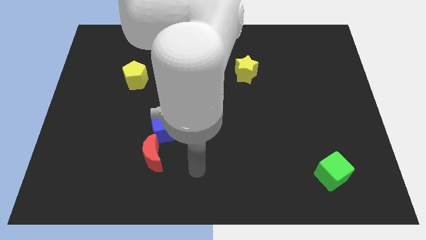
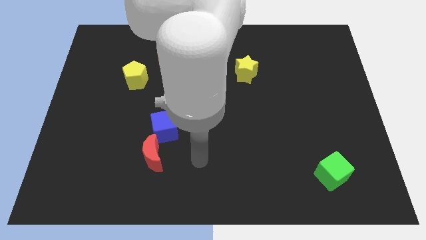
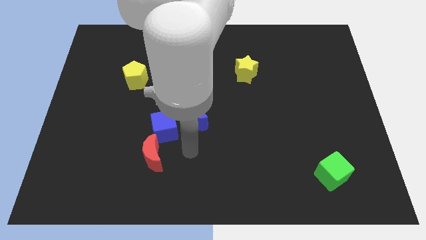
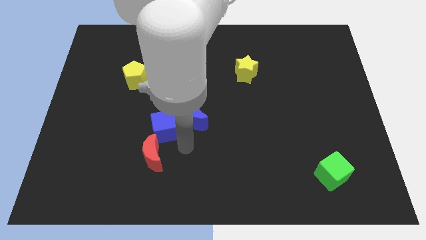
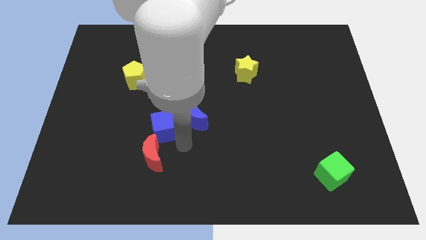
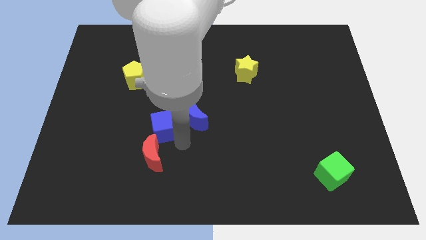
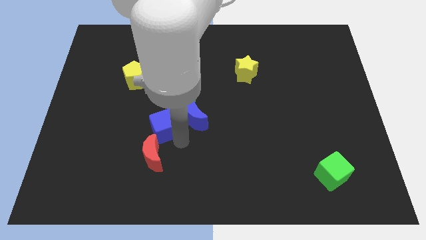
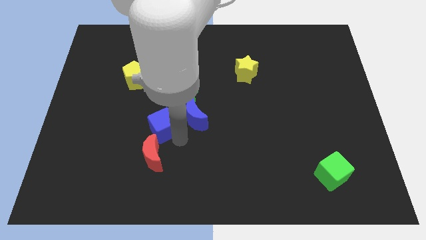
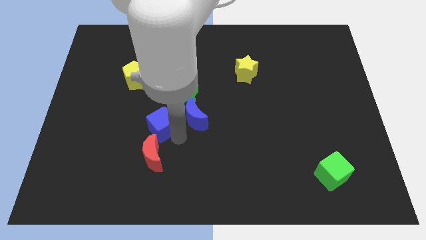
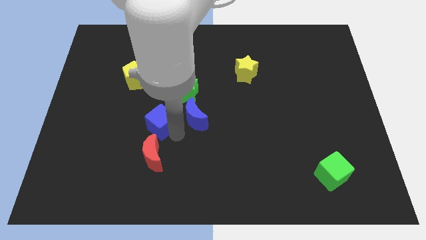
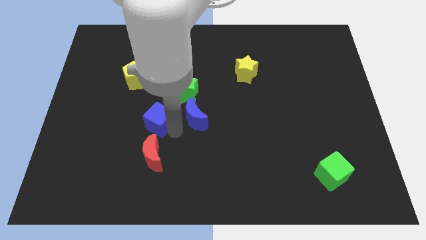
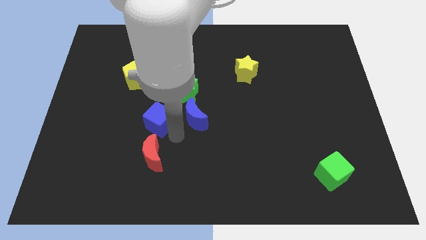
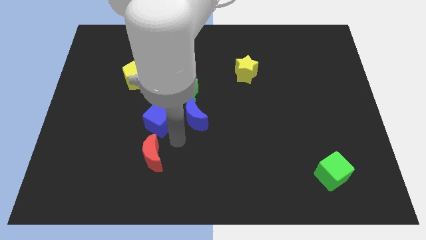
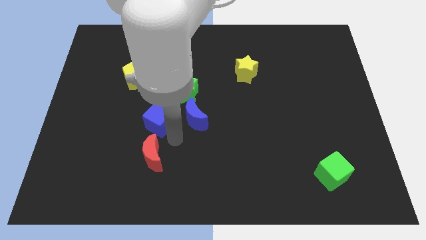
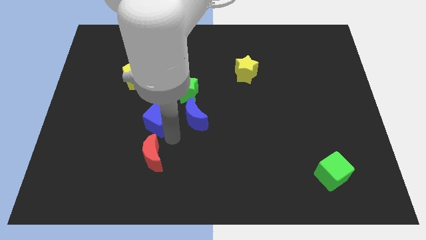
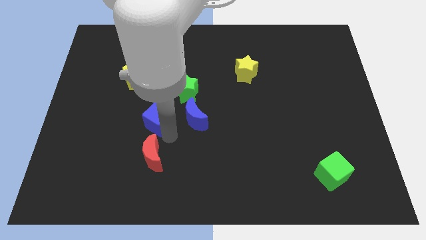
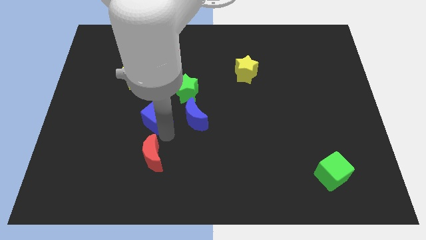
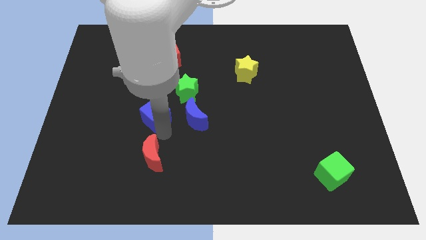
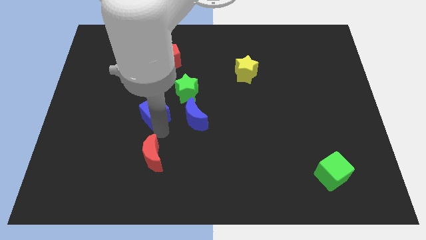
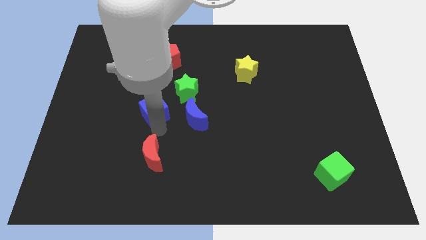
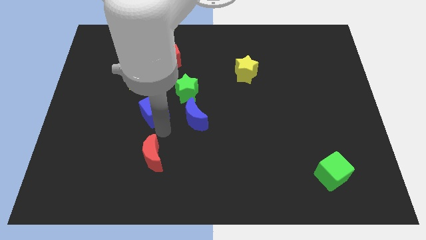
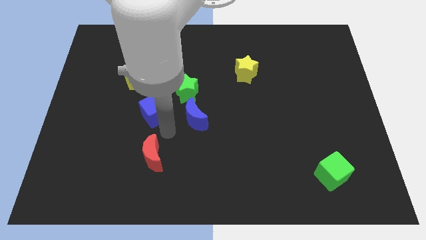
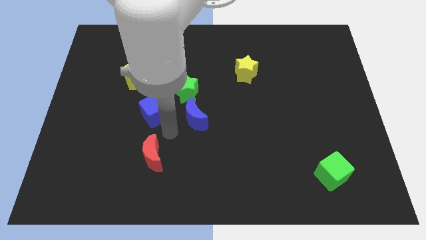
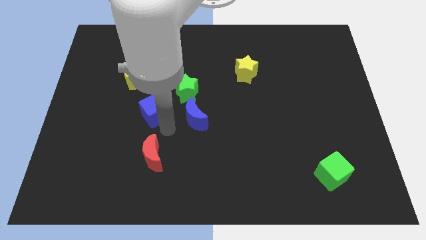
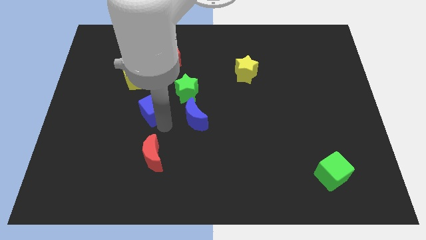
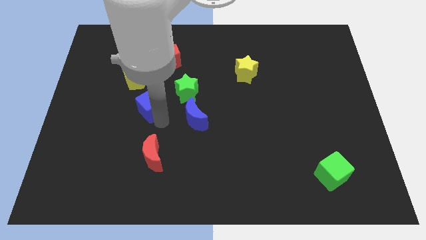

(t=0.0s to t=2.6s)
move the blue cube away from the blue moon and red moon

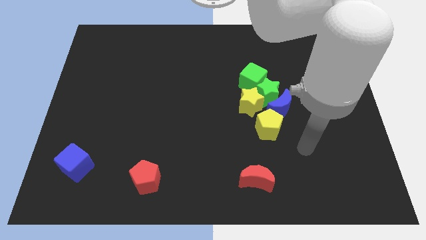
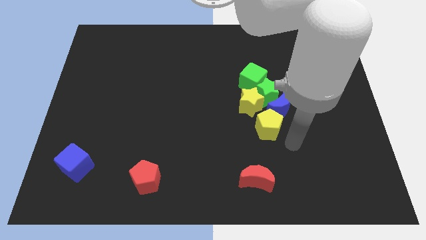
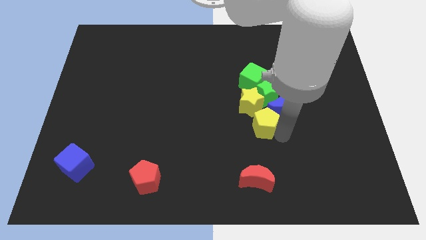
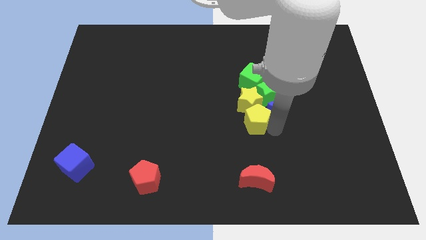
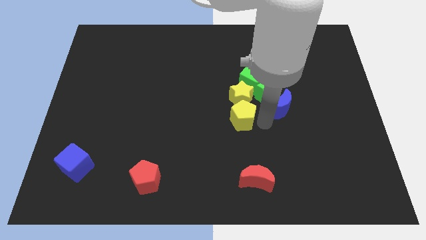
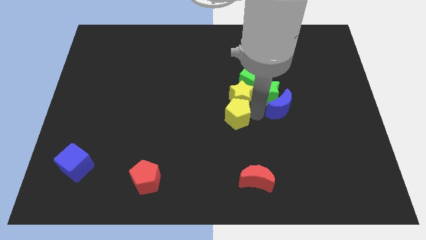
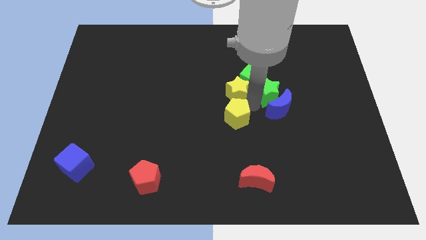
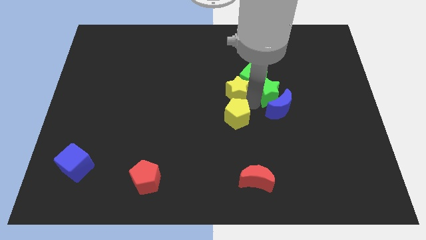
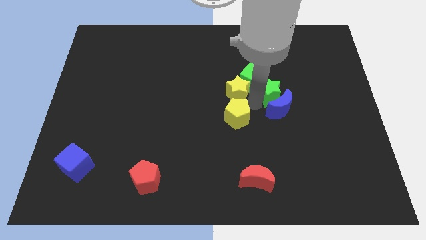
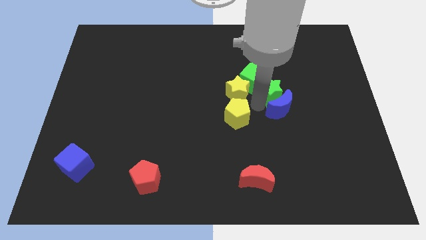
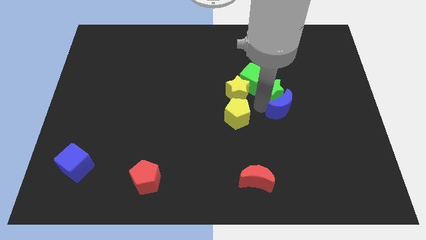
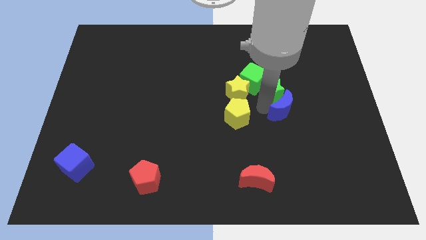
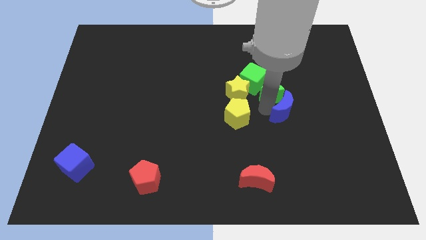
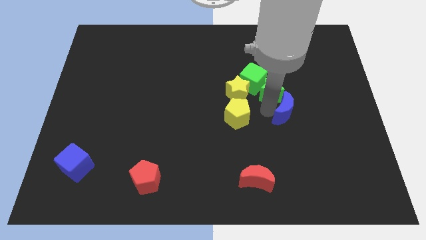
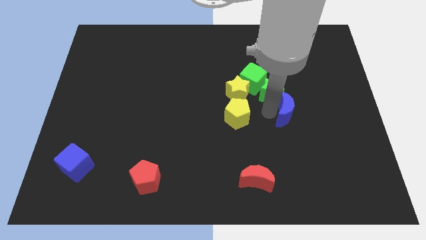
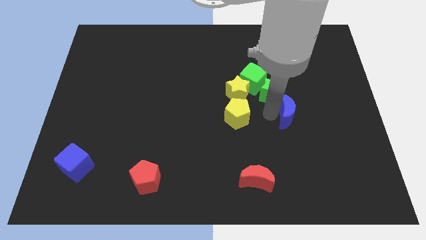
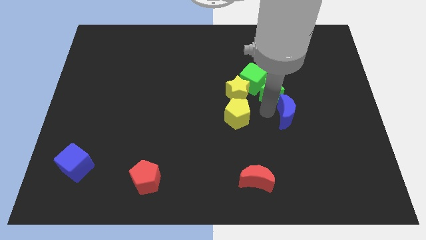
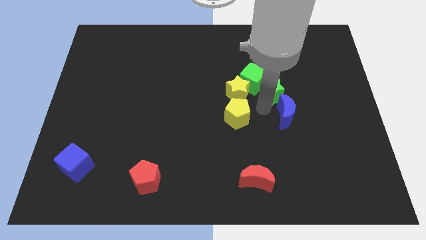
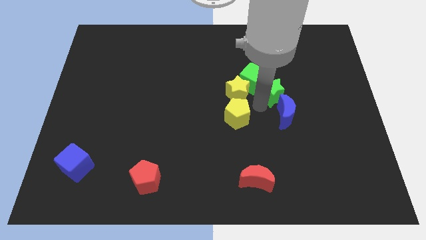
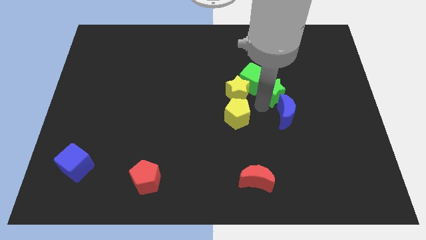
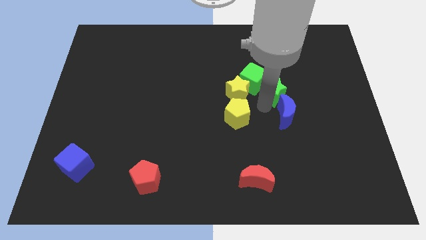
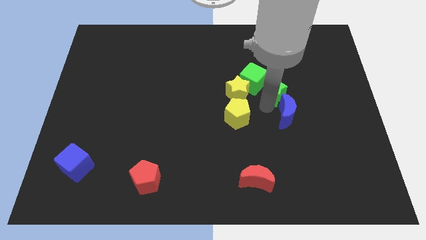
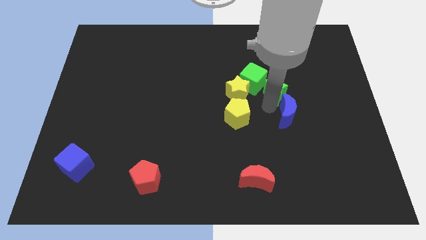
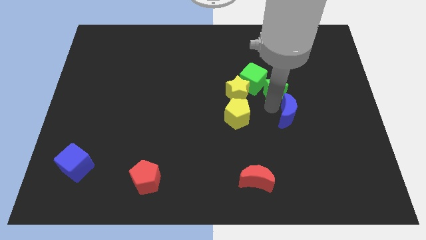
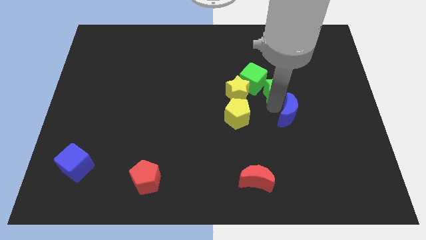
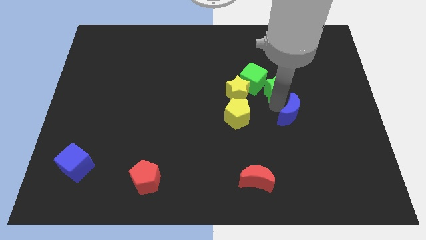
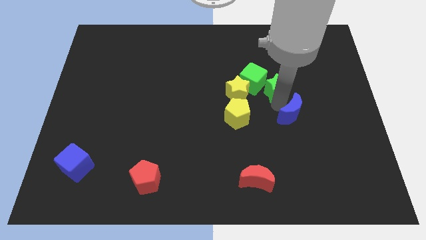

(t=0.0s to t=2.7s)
separate the blue moon from the green star, yellow pentagon, and yellow star

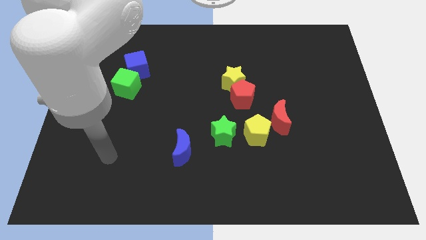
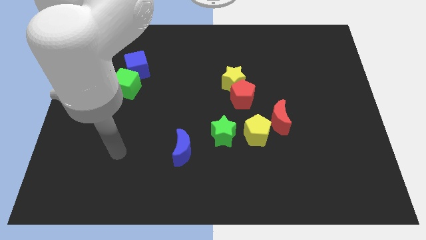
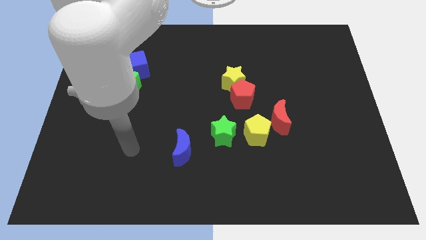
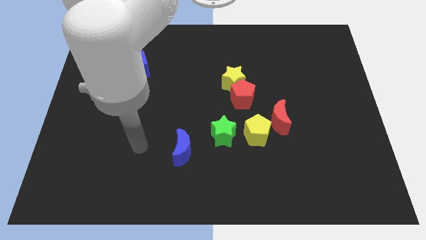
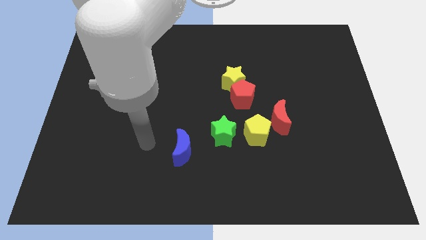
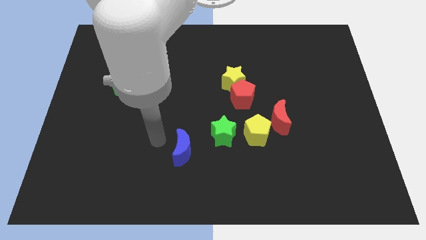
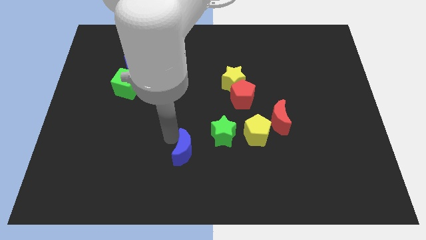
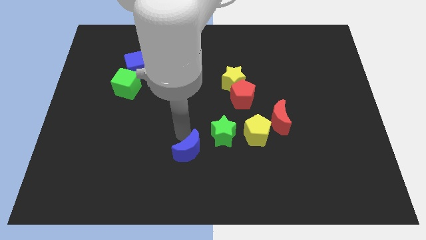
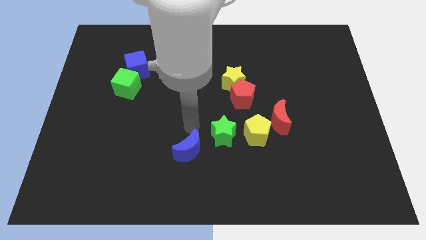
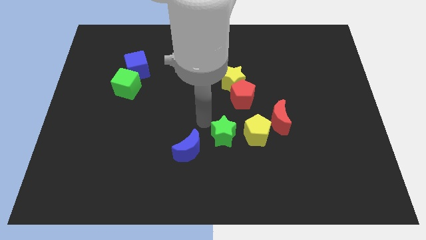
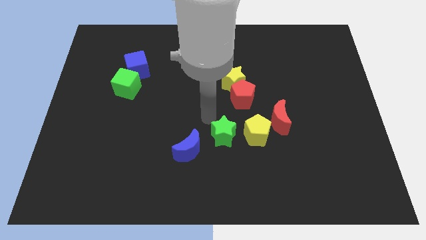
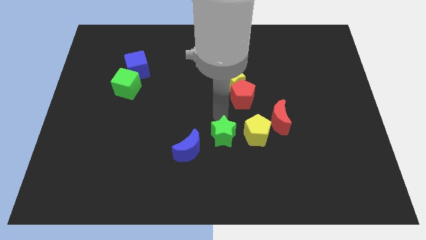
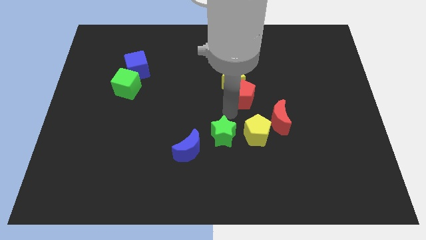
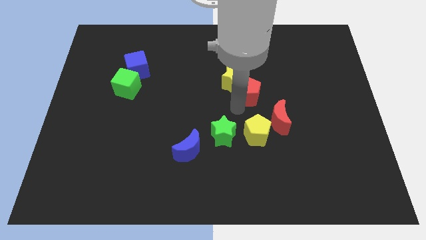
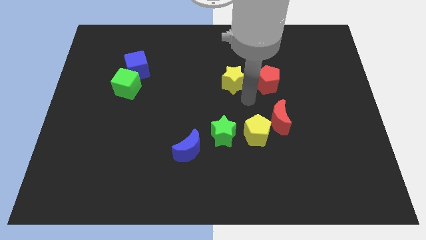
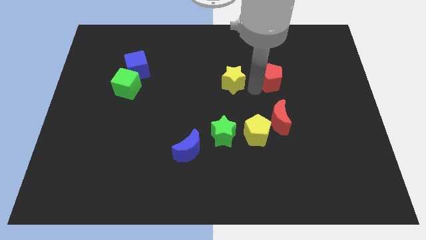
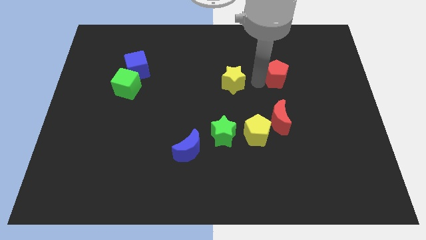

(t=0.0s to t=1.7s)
move the yellow star away from the red pentagon

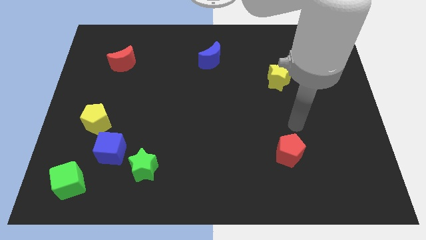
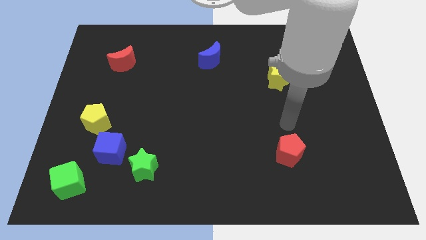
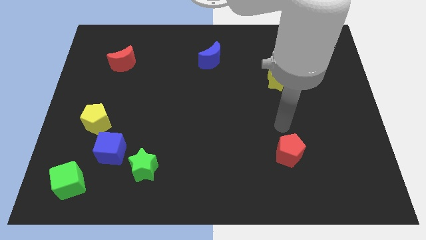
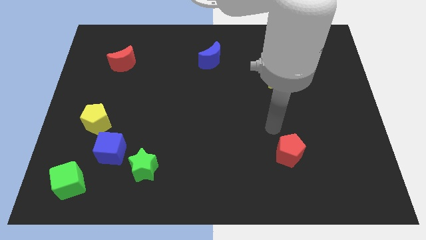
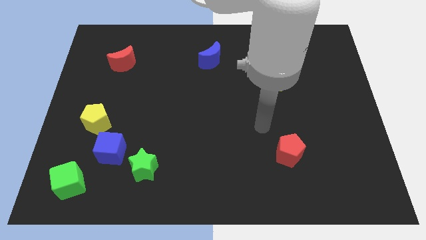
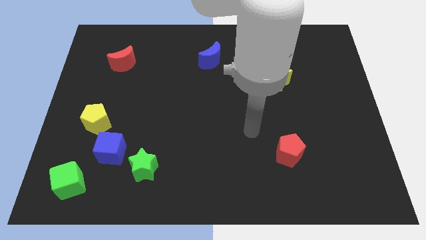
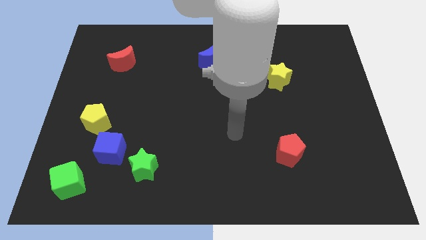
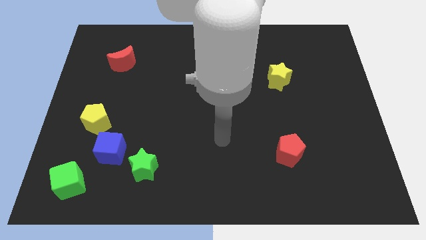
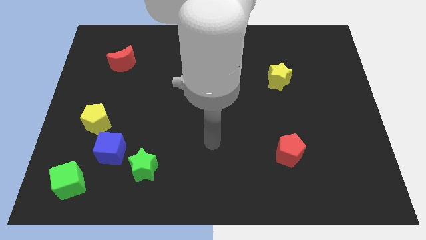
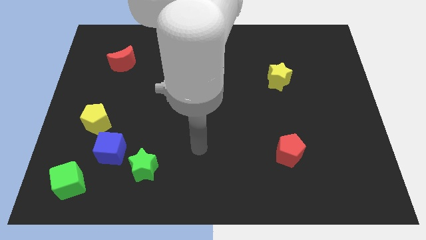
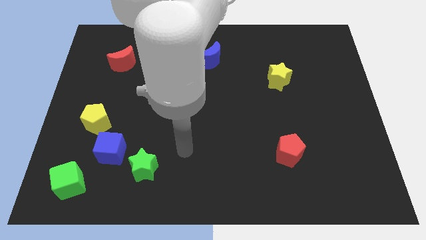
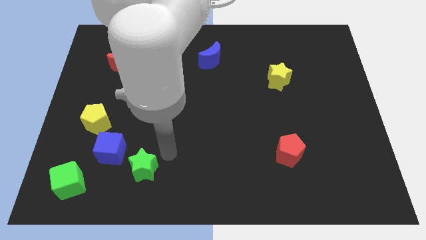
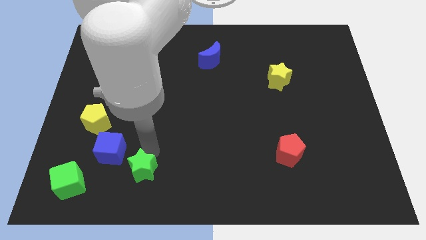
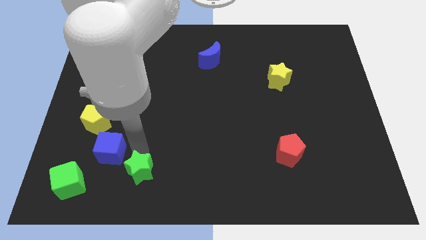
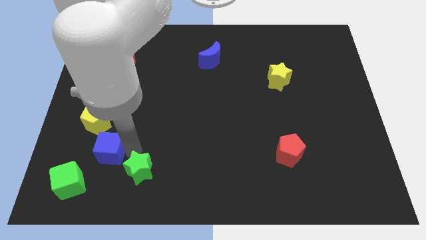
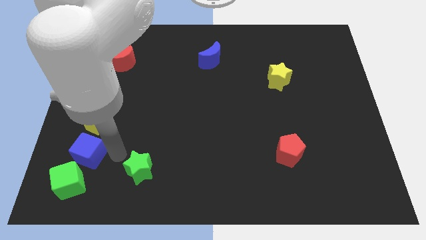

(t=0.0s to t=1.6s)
separate the green star from the blue cube

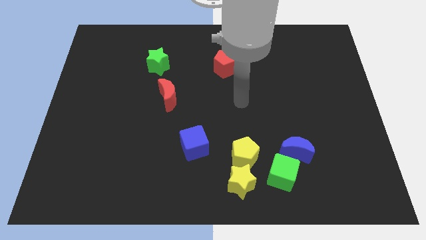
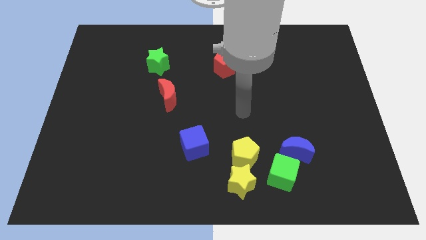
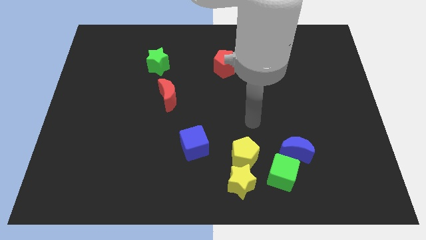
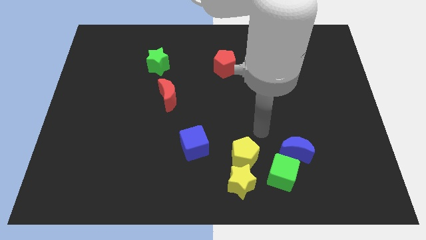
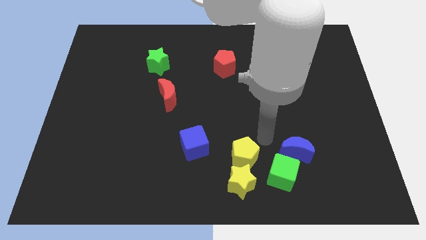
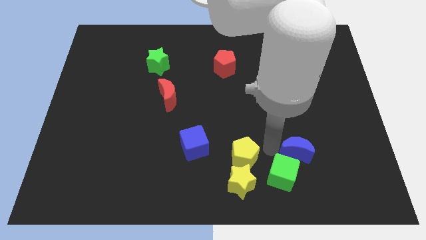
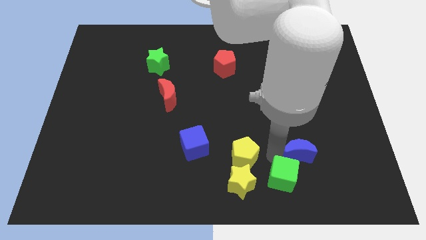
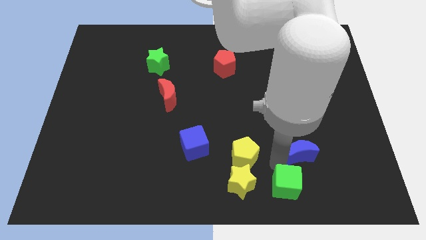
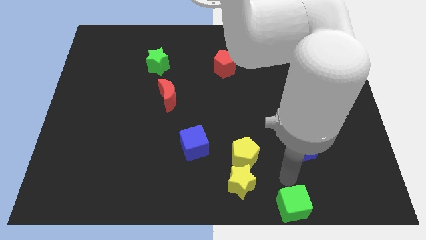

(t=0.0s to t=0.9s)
move the blue moon away from the green cube
